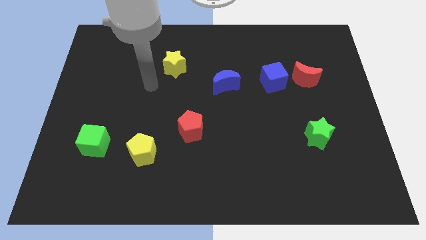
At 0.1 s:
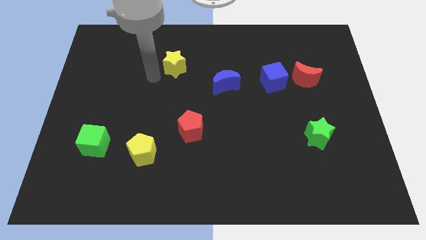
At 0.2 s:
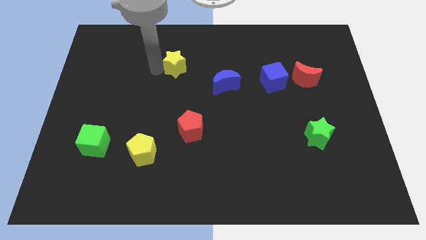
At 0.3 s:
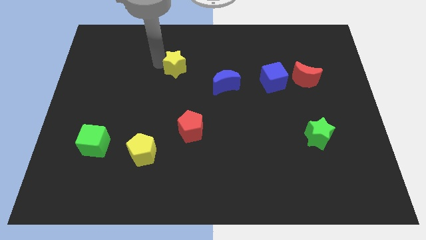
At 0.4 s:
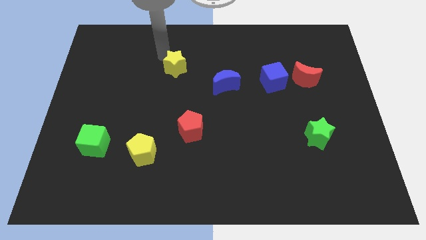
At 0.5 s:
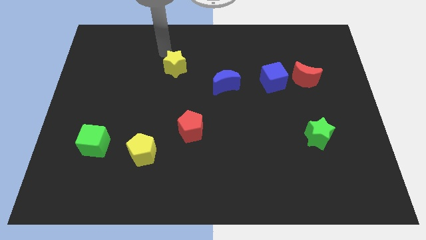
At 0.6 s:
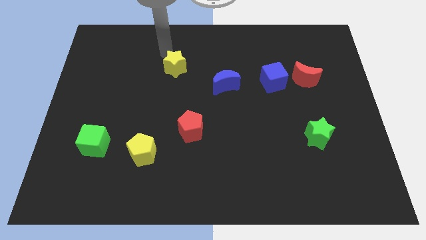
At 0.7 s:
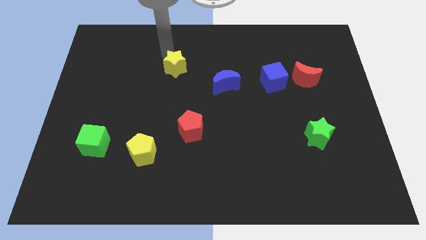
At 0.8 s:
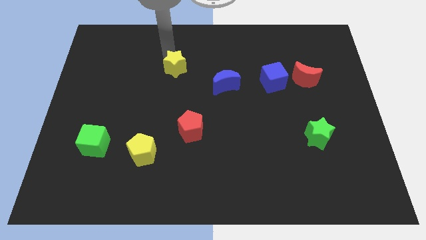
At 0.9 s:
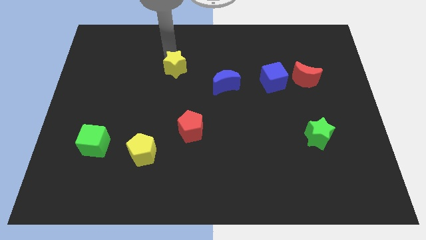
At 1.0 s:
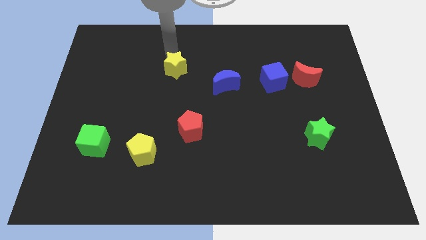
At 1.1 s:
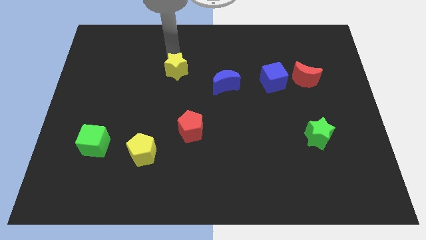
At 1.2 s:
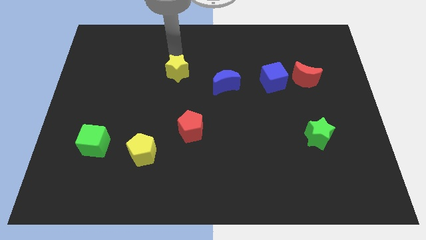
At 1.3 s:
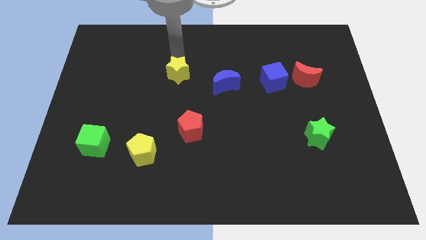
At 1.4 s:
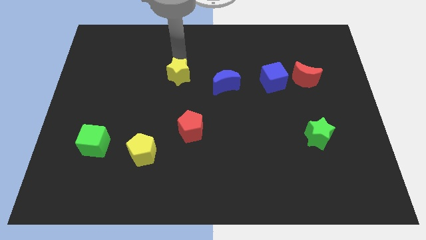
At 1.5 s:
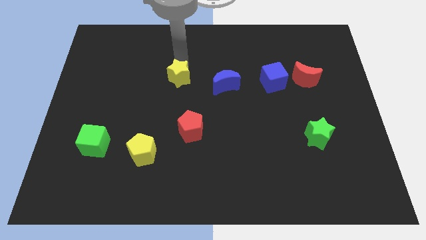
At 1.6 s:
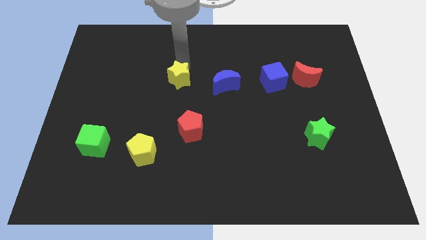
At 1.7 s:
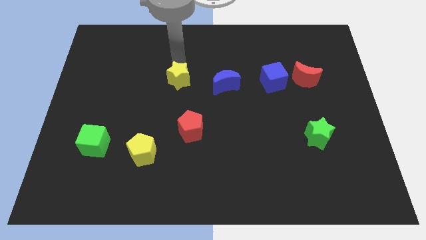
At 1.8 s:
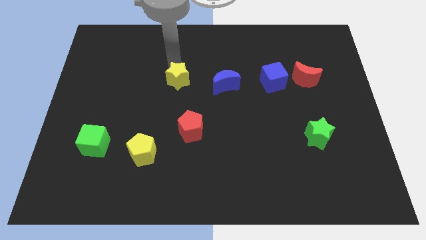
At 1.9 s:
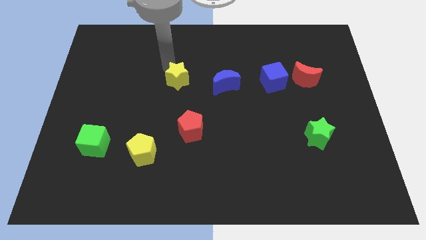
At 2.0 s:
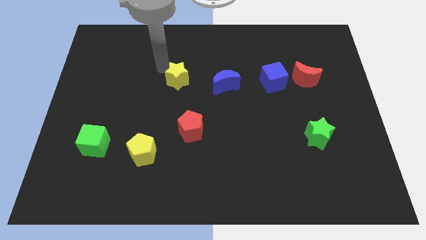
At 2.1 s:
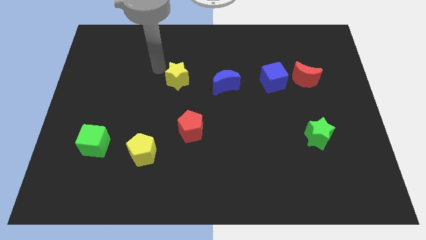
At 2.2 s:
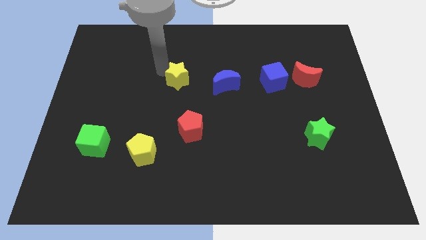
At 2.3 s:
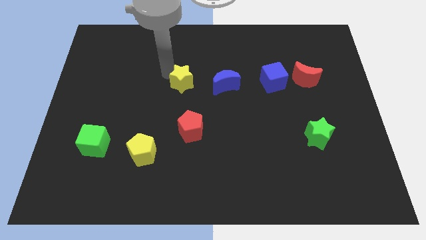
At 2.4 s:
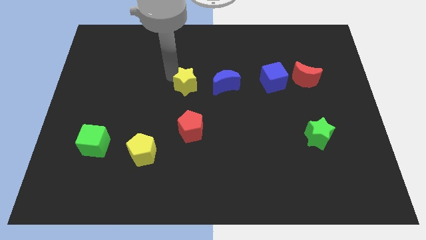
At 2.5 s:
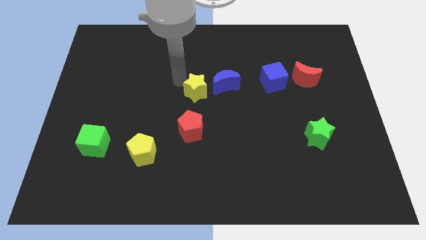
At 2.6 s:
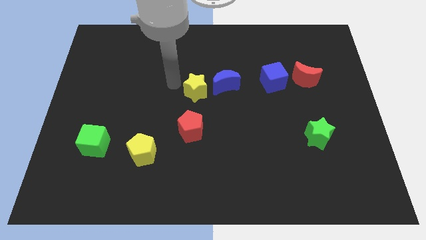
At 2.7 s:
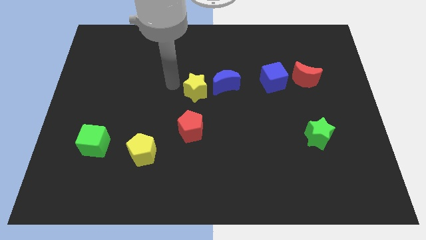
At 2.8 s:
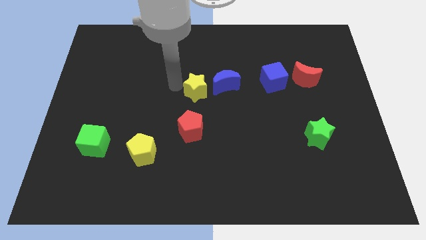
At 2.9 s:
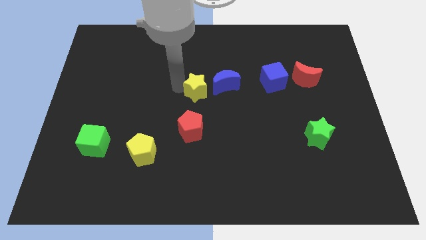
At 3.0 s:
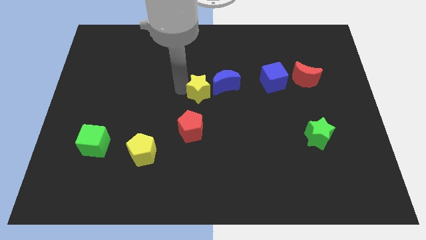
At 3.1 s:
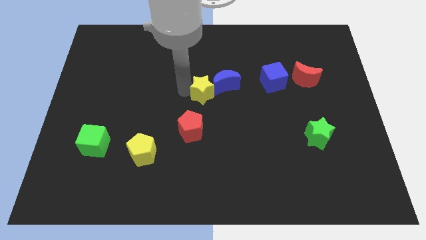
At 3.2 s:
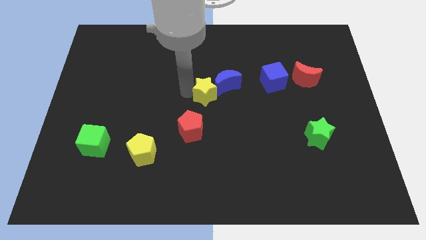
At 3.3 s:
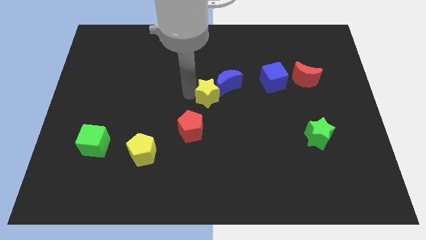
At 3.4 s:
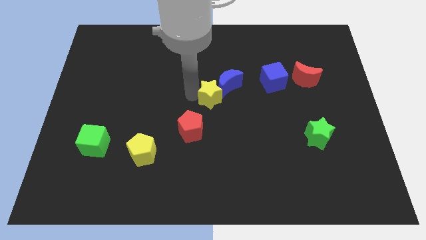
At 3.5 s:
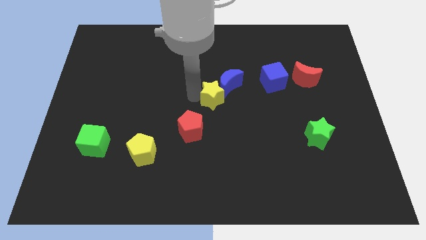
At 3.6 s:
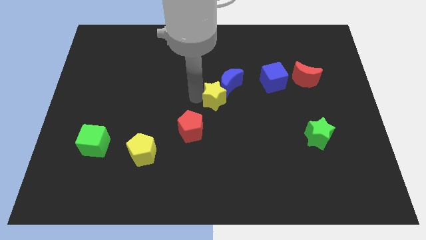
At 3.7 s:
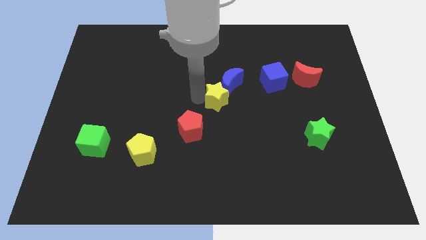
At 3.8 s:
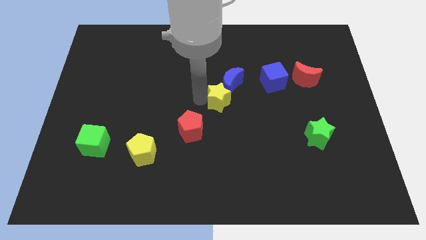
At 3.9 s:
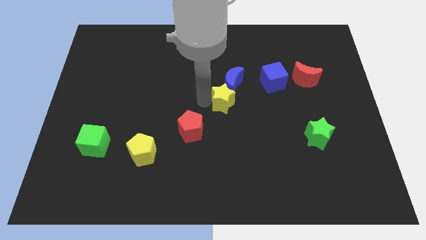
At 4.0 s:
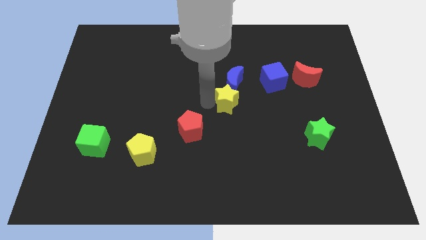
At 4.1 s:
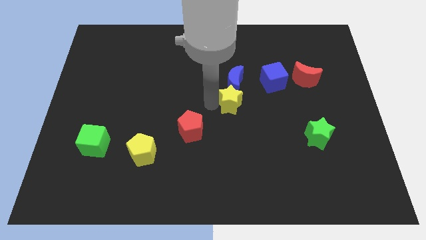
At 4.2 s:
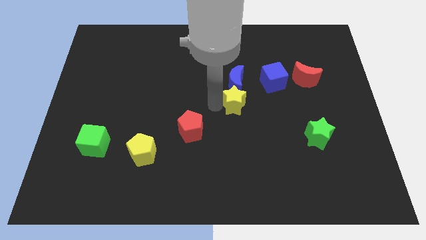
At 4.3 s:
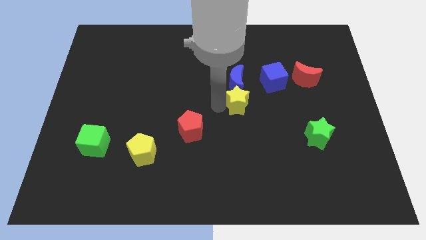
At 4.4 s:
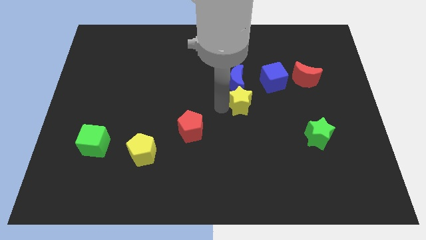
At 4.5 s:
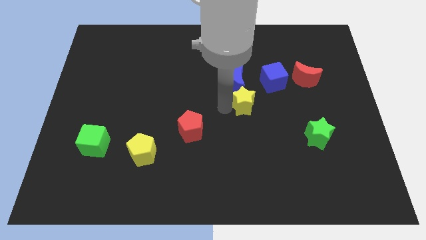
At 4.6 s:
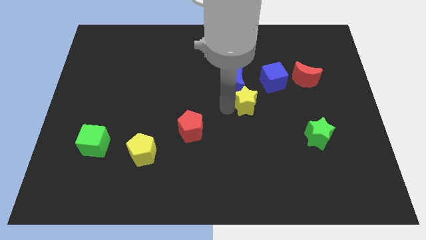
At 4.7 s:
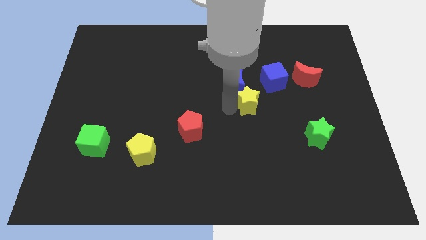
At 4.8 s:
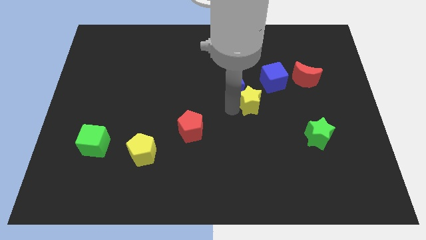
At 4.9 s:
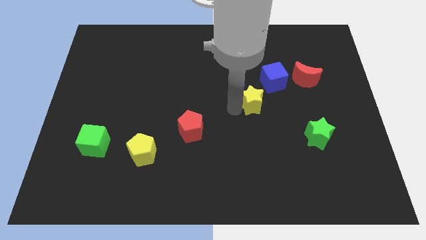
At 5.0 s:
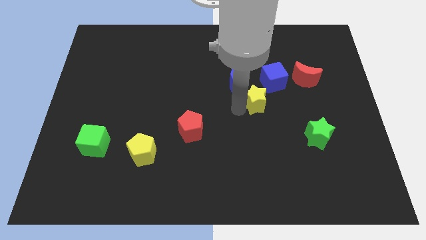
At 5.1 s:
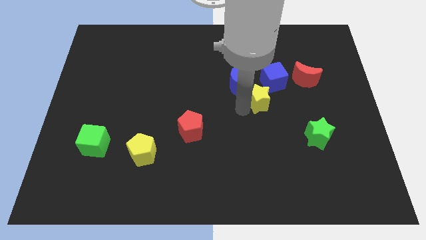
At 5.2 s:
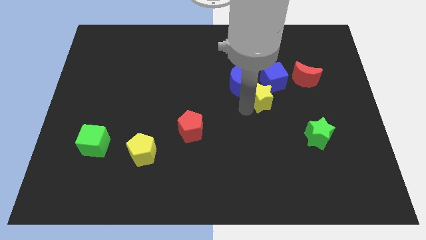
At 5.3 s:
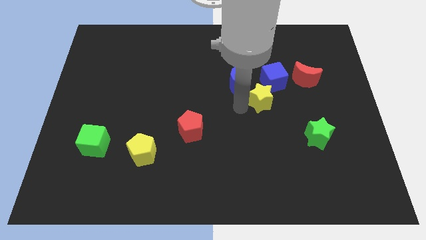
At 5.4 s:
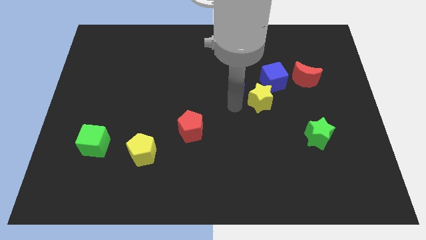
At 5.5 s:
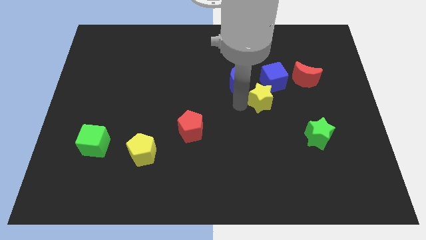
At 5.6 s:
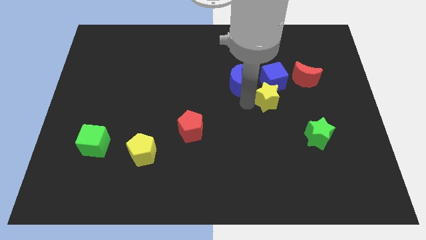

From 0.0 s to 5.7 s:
push the yellow star to the bottom left side of the red moon

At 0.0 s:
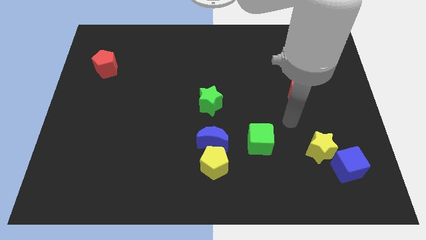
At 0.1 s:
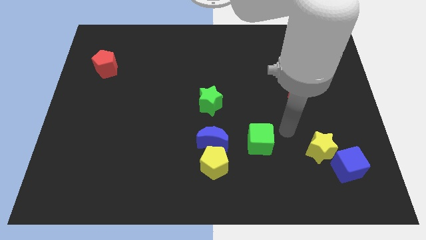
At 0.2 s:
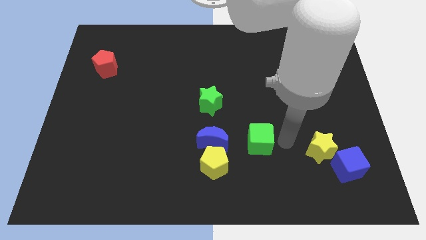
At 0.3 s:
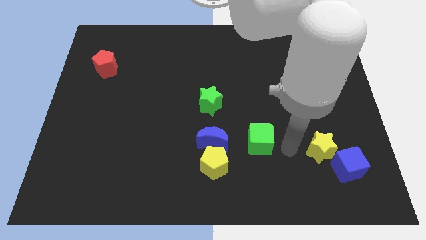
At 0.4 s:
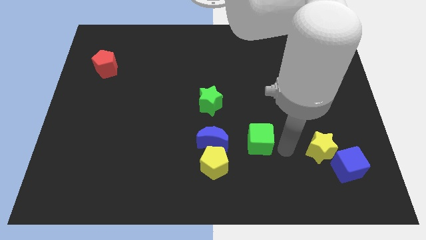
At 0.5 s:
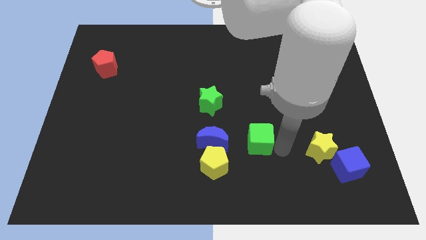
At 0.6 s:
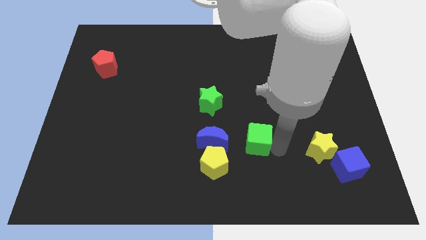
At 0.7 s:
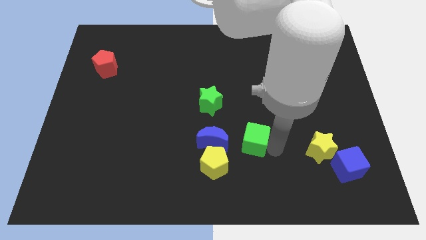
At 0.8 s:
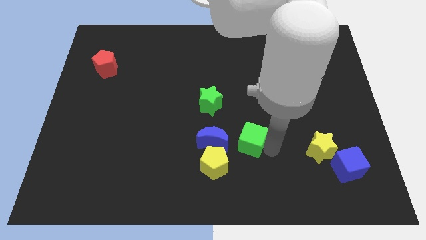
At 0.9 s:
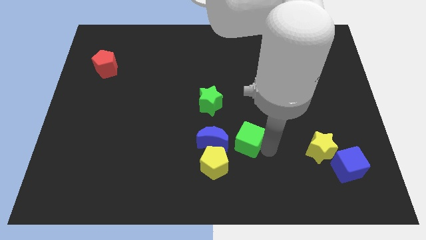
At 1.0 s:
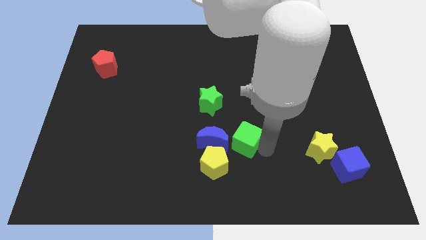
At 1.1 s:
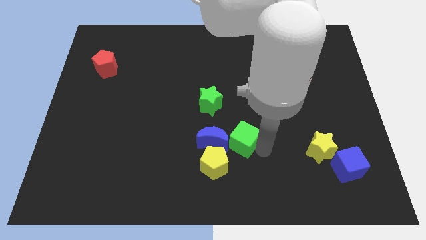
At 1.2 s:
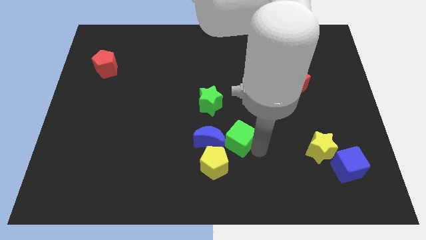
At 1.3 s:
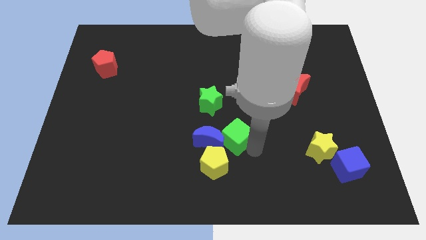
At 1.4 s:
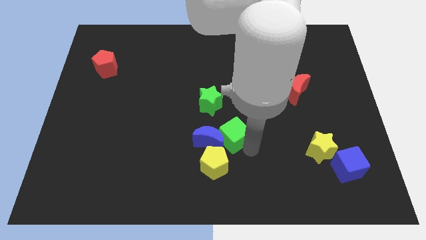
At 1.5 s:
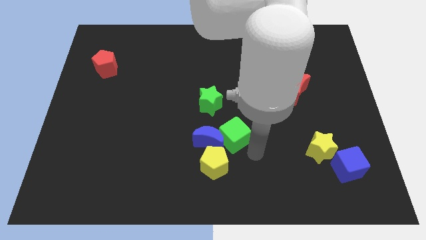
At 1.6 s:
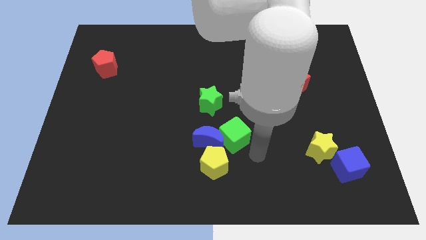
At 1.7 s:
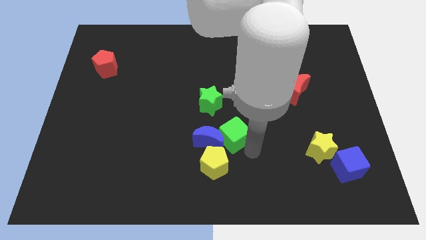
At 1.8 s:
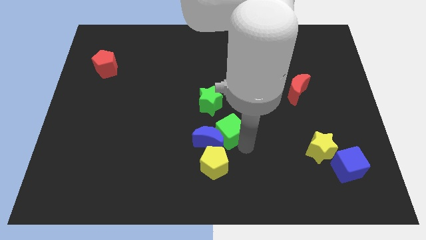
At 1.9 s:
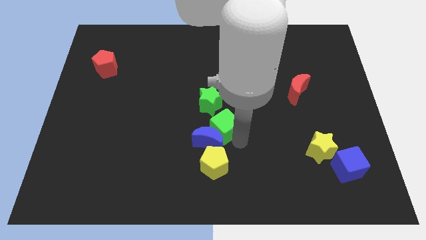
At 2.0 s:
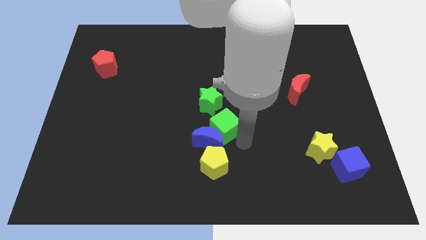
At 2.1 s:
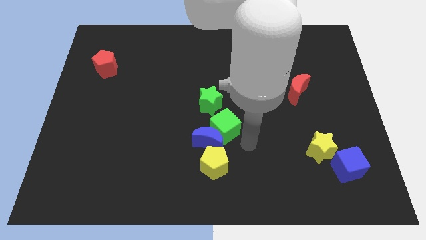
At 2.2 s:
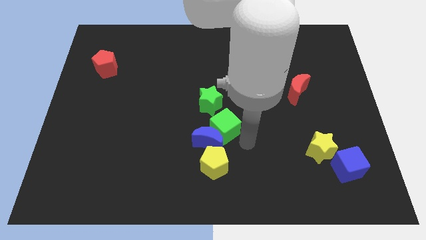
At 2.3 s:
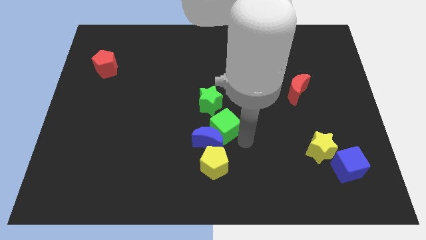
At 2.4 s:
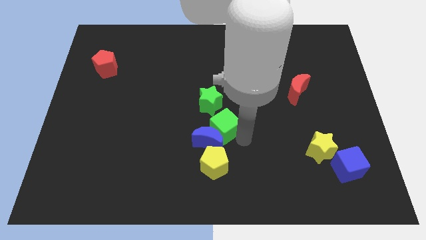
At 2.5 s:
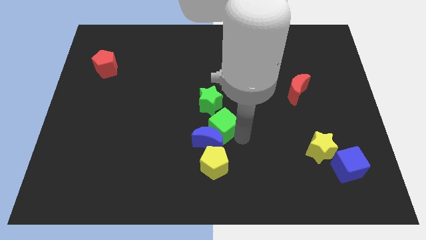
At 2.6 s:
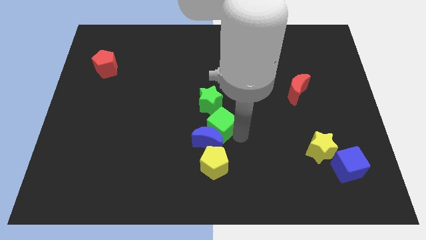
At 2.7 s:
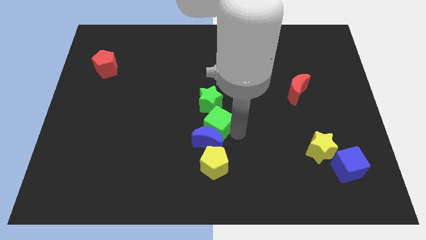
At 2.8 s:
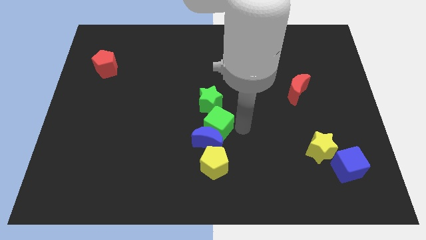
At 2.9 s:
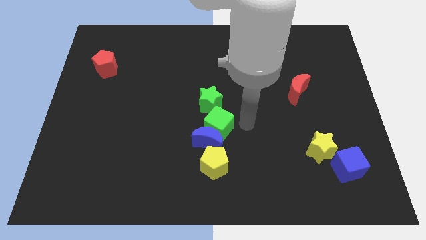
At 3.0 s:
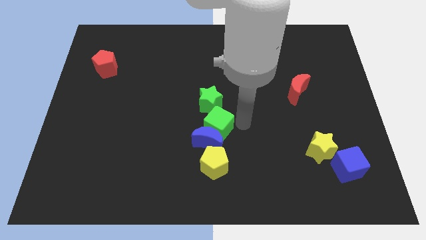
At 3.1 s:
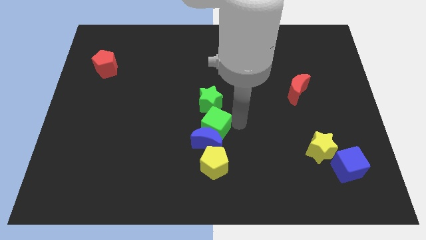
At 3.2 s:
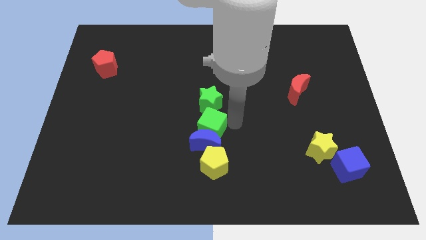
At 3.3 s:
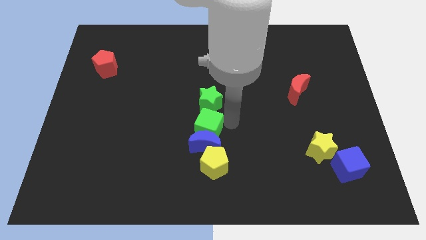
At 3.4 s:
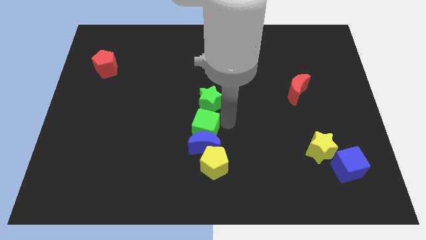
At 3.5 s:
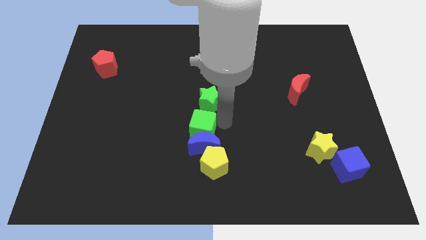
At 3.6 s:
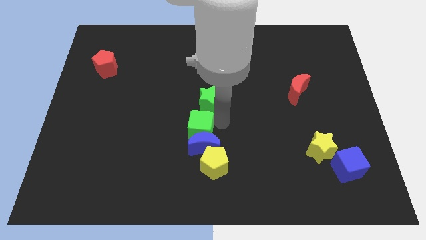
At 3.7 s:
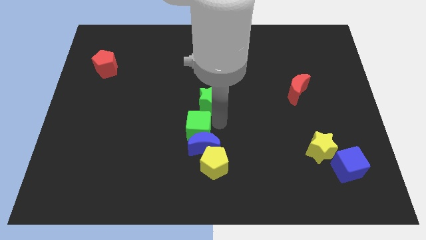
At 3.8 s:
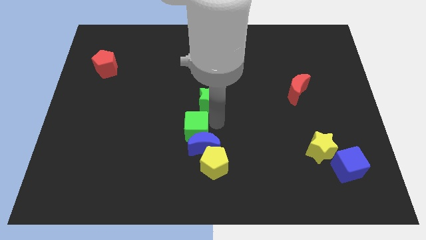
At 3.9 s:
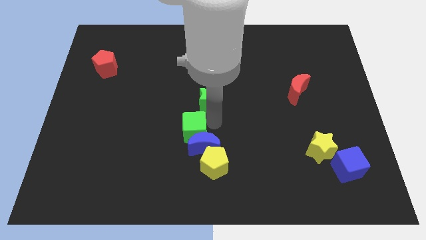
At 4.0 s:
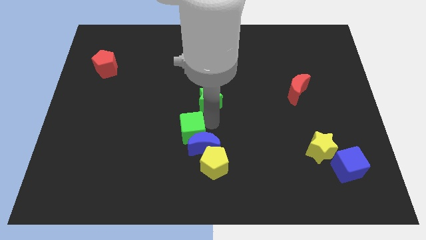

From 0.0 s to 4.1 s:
push the green cube to the left of the blue moon
